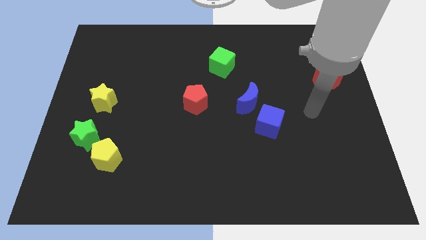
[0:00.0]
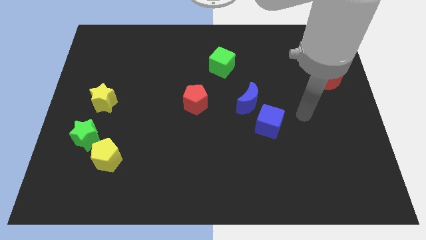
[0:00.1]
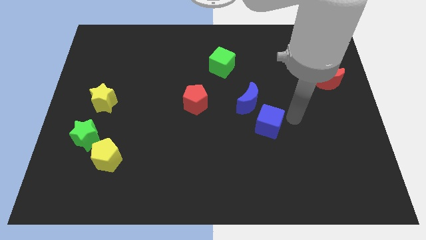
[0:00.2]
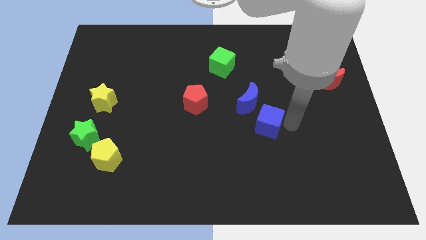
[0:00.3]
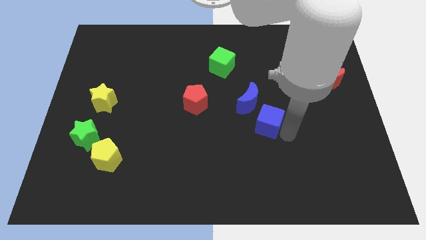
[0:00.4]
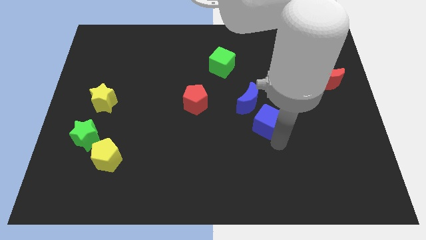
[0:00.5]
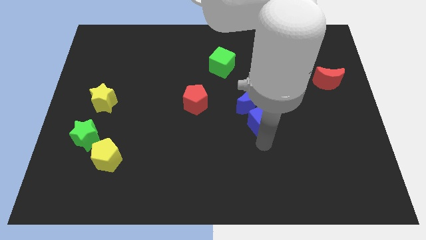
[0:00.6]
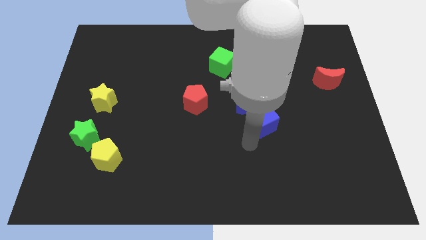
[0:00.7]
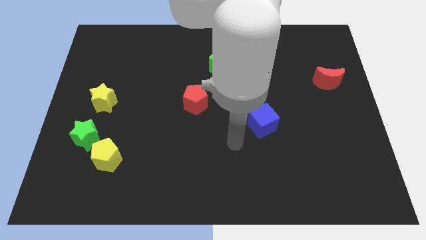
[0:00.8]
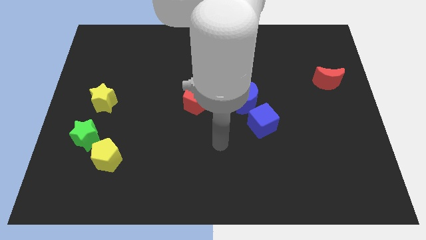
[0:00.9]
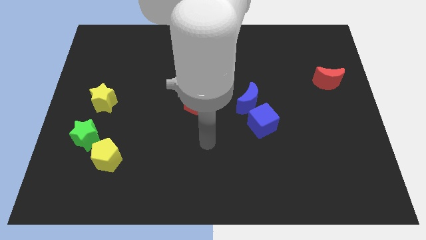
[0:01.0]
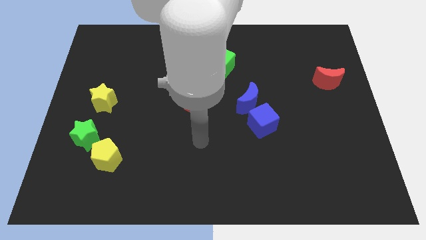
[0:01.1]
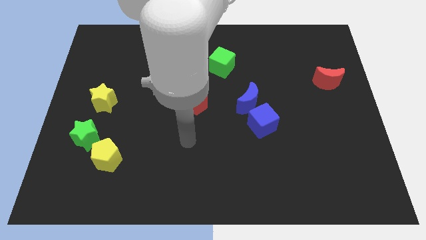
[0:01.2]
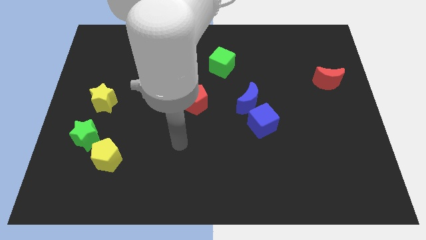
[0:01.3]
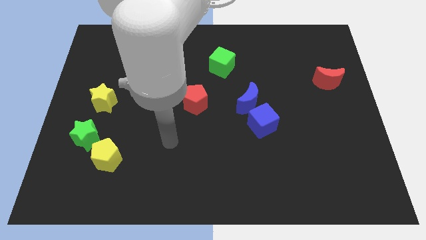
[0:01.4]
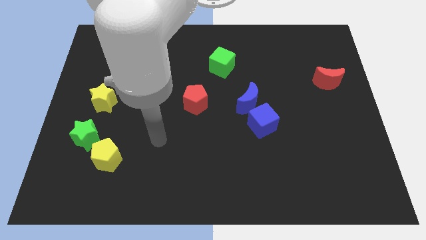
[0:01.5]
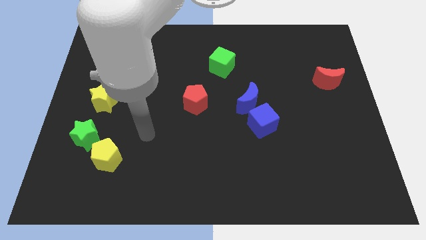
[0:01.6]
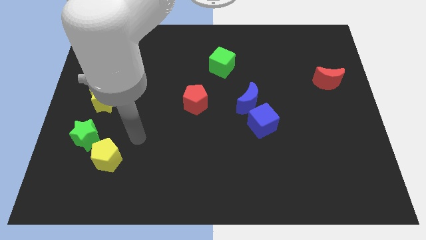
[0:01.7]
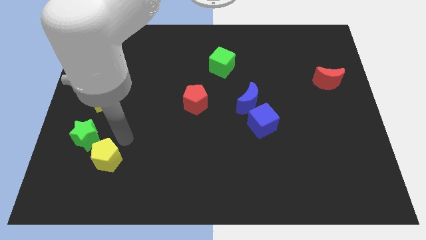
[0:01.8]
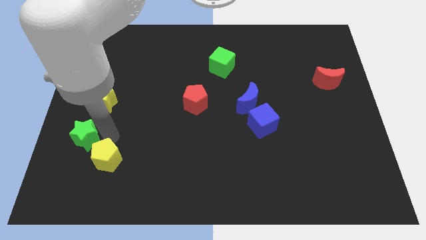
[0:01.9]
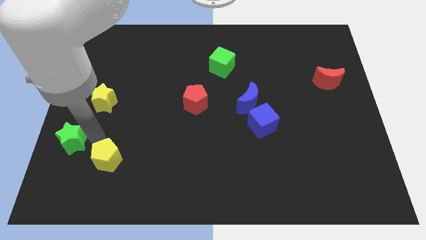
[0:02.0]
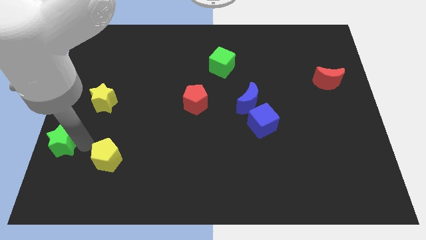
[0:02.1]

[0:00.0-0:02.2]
separate the yellow pentagon from the green star

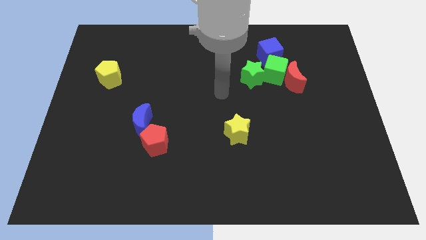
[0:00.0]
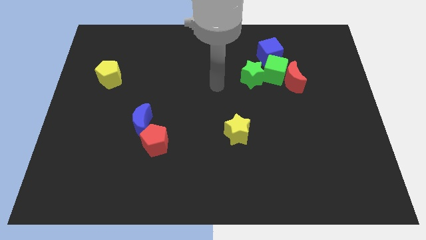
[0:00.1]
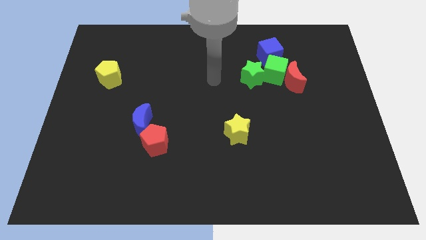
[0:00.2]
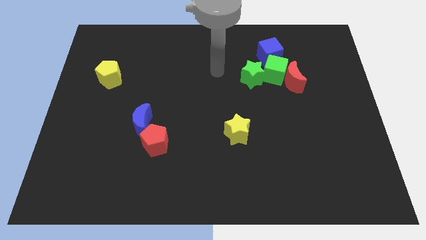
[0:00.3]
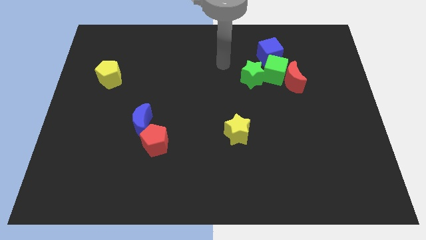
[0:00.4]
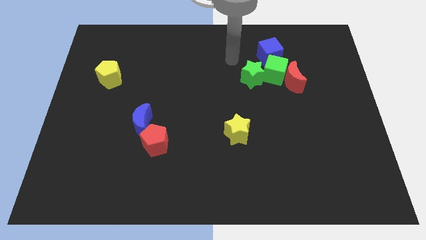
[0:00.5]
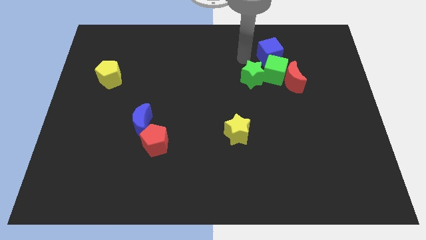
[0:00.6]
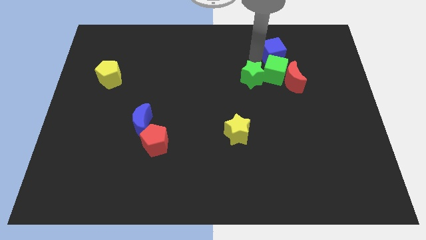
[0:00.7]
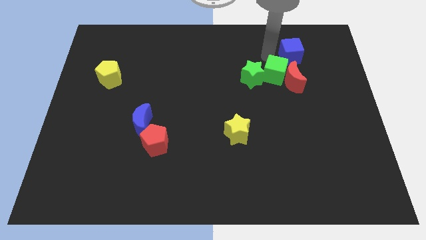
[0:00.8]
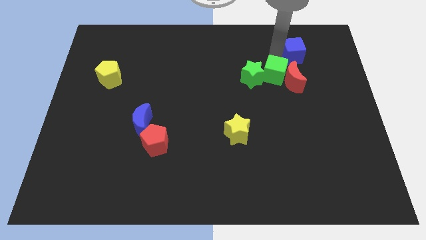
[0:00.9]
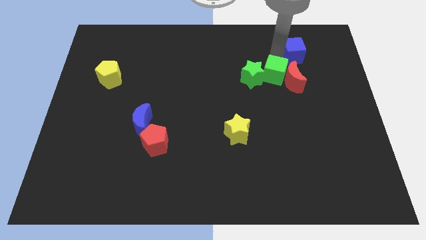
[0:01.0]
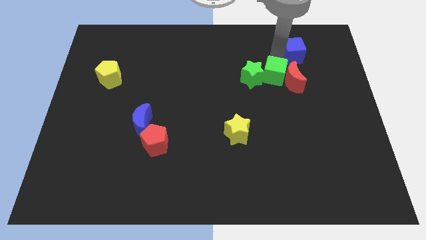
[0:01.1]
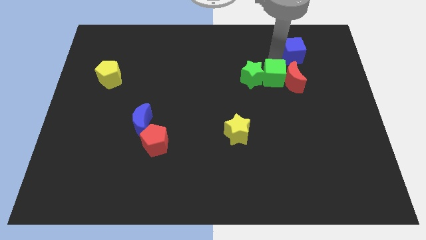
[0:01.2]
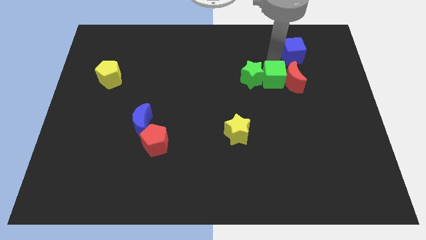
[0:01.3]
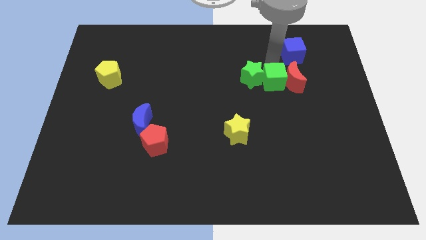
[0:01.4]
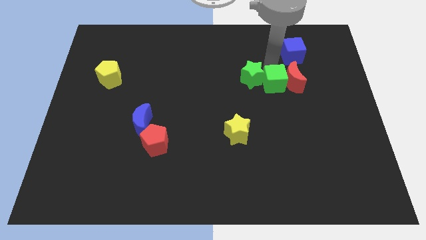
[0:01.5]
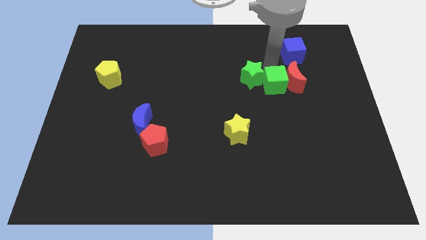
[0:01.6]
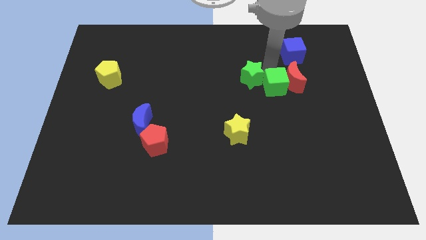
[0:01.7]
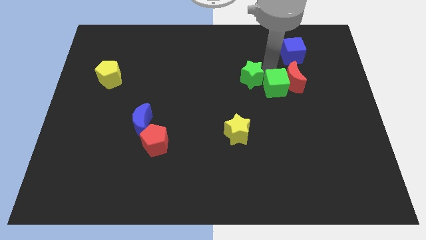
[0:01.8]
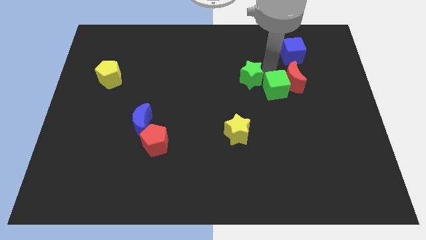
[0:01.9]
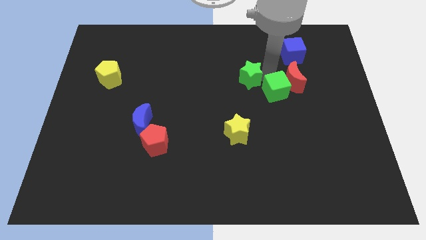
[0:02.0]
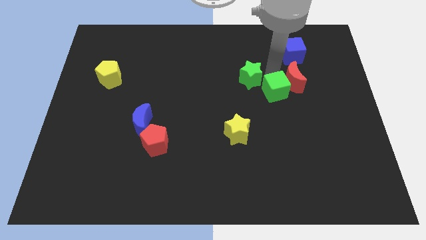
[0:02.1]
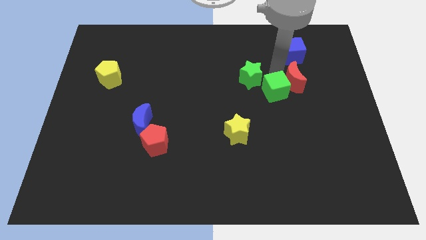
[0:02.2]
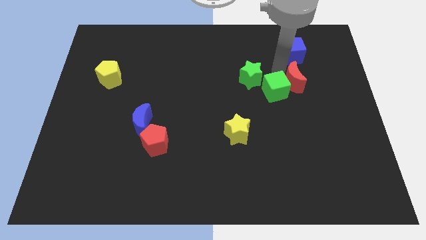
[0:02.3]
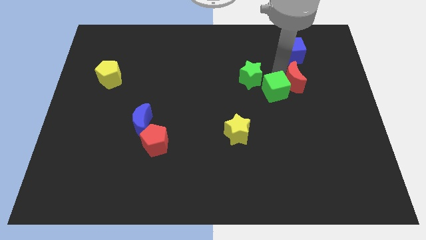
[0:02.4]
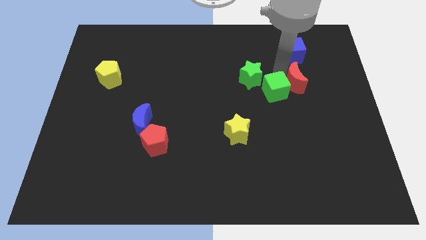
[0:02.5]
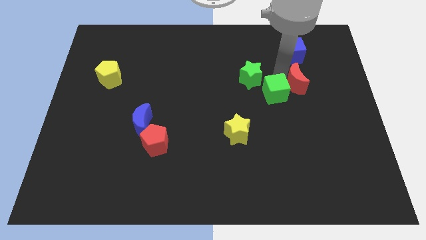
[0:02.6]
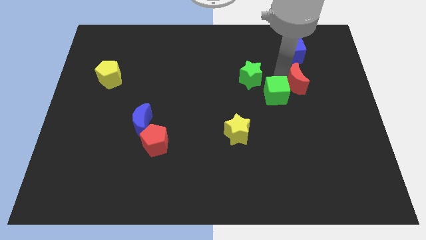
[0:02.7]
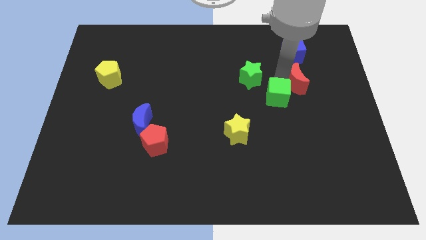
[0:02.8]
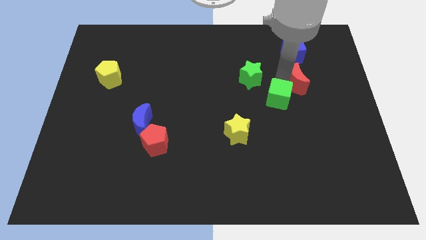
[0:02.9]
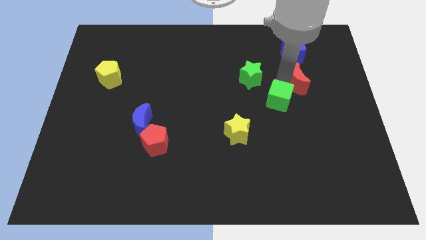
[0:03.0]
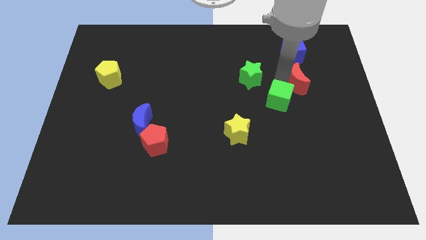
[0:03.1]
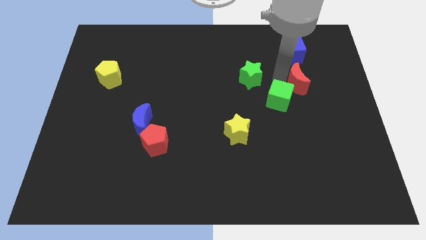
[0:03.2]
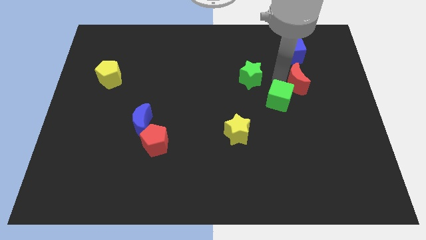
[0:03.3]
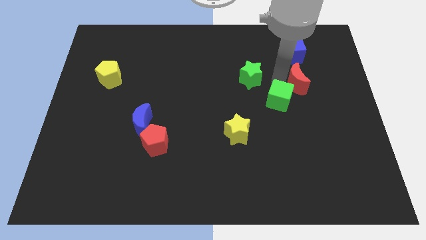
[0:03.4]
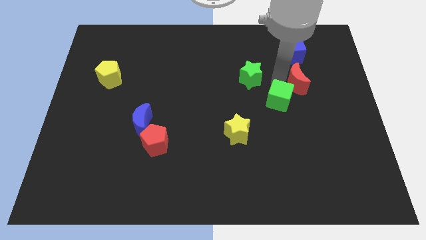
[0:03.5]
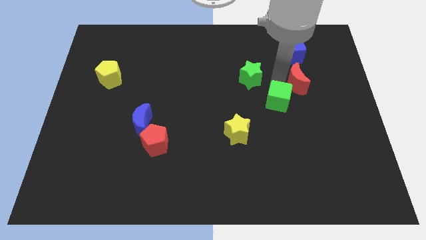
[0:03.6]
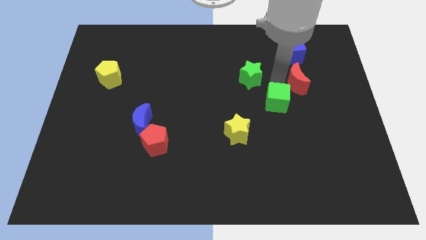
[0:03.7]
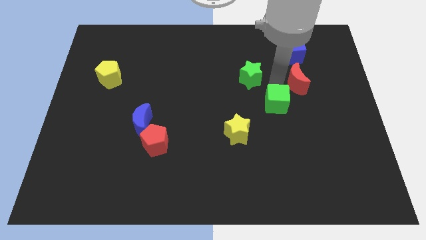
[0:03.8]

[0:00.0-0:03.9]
pull the green cube apart from the clump

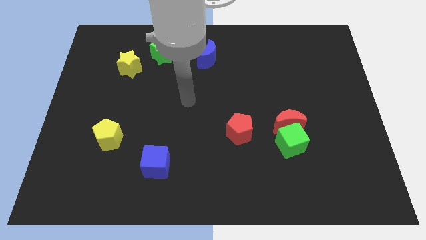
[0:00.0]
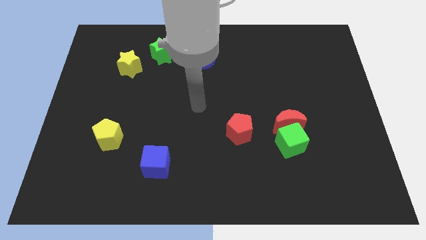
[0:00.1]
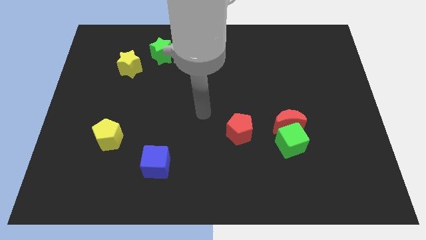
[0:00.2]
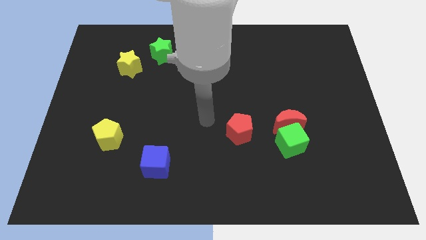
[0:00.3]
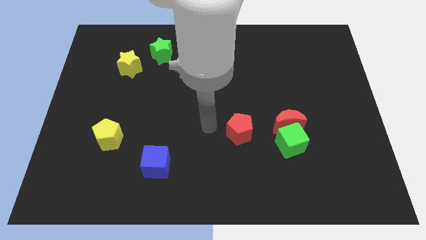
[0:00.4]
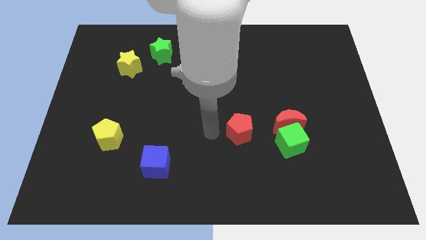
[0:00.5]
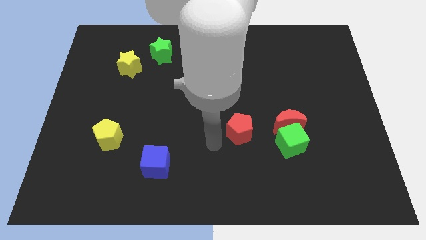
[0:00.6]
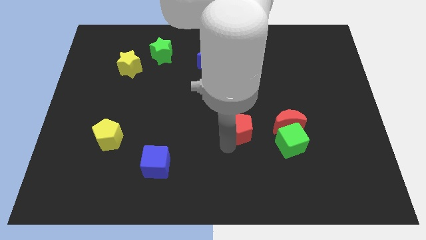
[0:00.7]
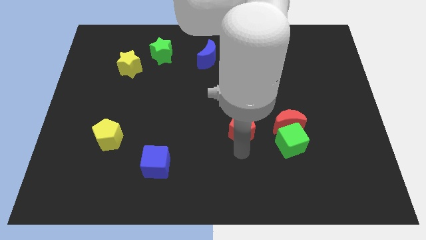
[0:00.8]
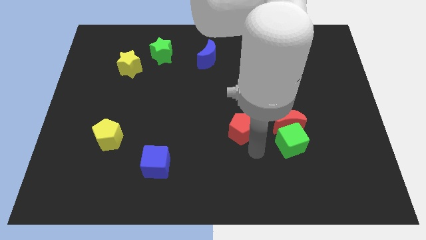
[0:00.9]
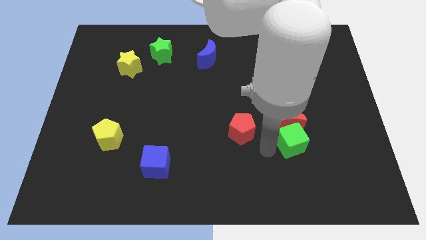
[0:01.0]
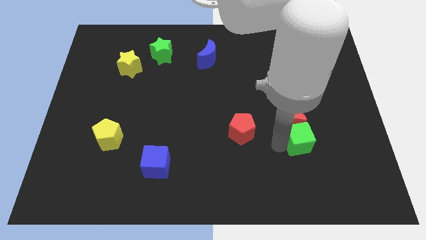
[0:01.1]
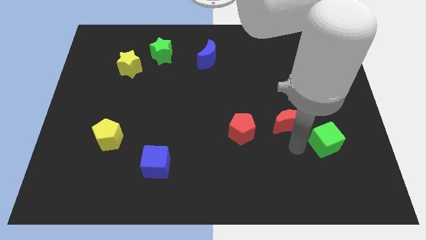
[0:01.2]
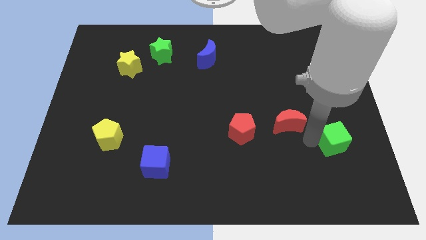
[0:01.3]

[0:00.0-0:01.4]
move the red moon away from the green cube

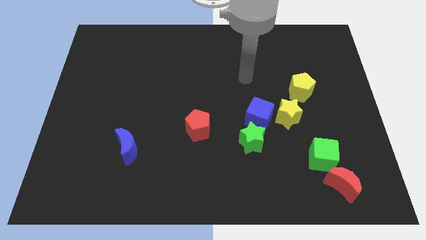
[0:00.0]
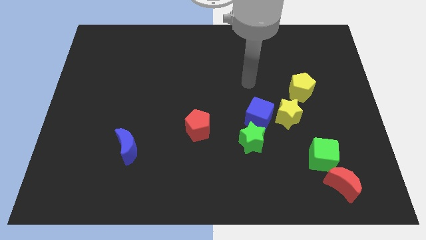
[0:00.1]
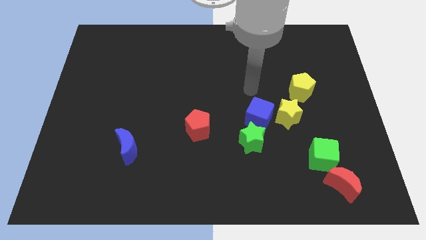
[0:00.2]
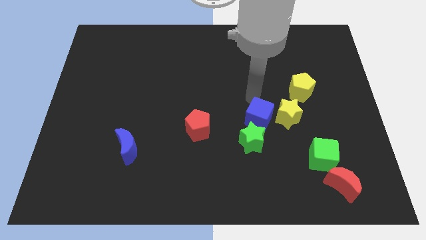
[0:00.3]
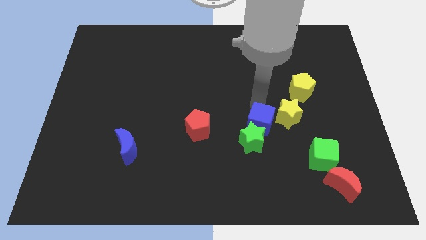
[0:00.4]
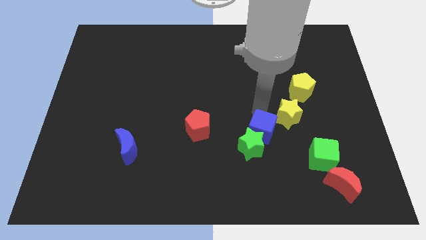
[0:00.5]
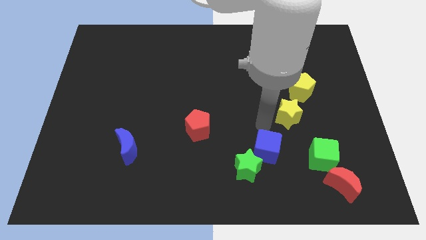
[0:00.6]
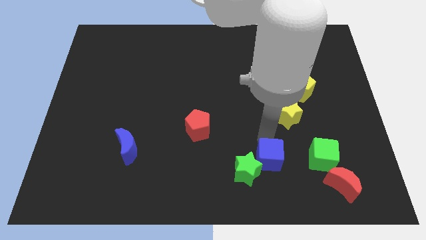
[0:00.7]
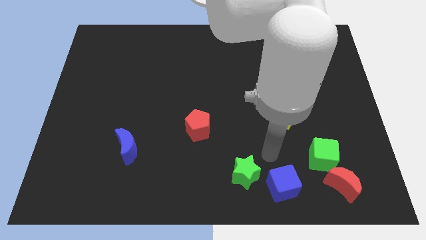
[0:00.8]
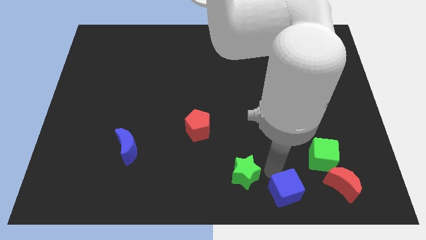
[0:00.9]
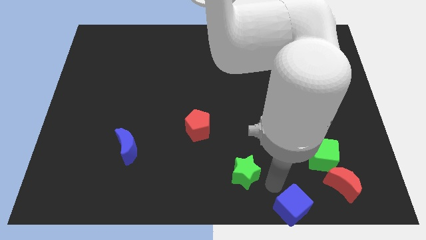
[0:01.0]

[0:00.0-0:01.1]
separate the green star from the blue cube

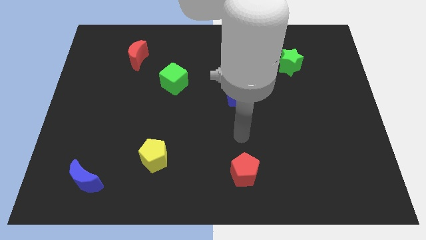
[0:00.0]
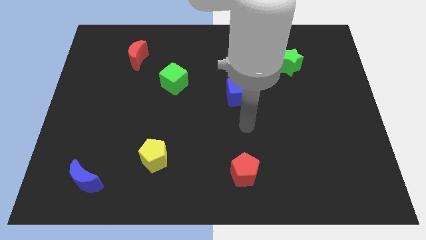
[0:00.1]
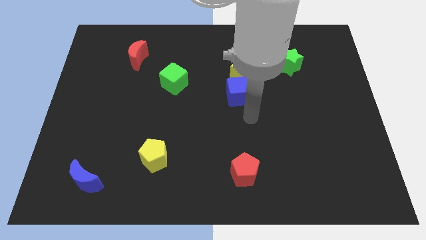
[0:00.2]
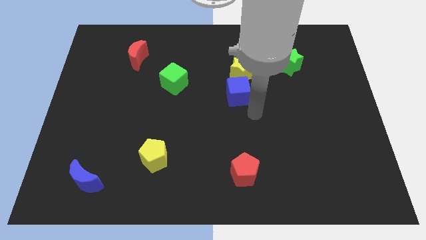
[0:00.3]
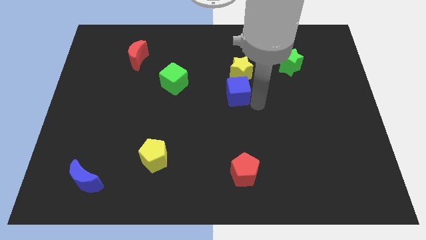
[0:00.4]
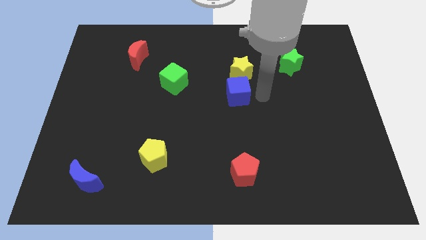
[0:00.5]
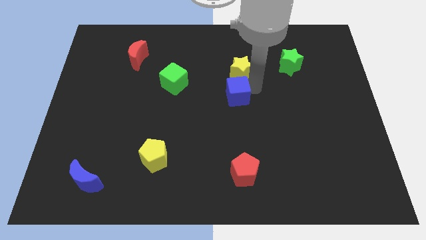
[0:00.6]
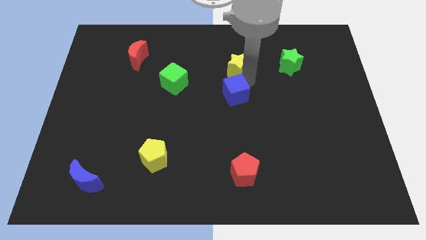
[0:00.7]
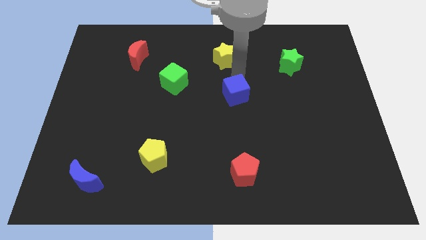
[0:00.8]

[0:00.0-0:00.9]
move the blue cube away from the yellow star
